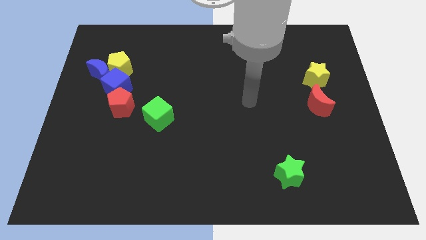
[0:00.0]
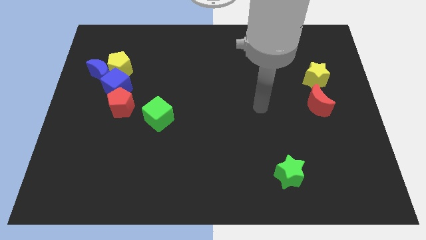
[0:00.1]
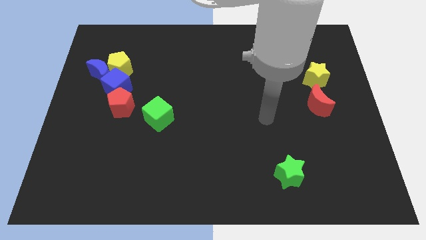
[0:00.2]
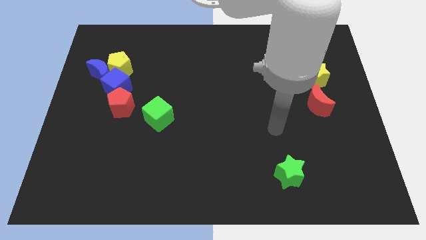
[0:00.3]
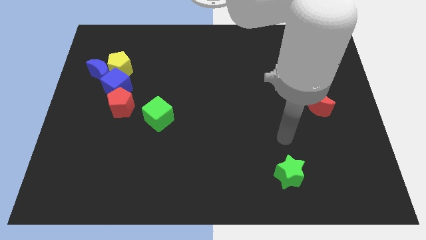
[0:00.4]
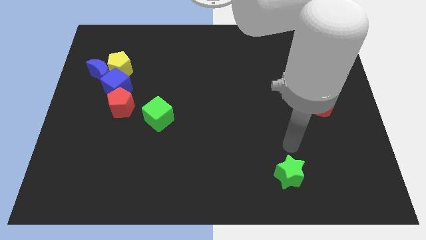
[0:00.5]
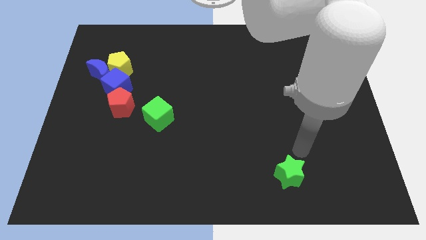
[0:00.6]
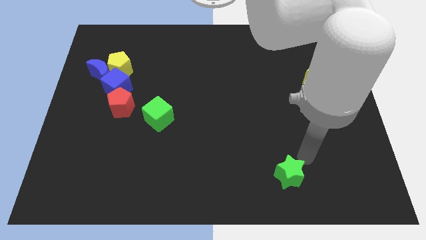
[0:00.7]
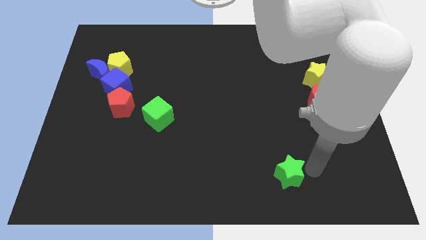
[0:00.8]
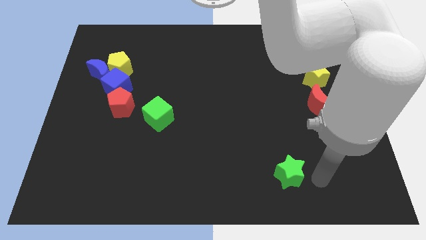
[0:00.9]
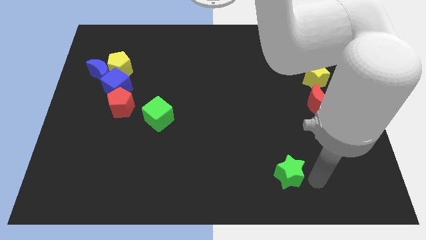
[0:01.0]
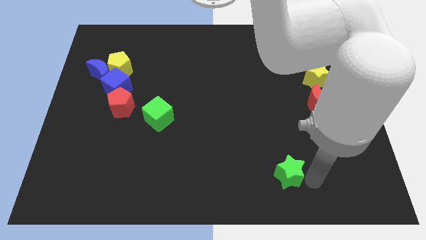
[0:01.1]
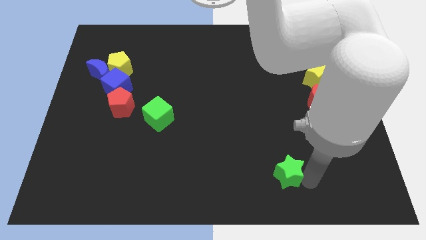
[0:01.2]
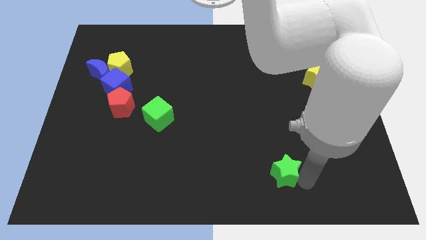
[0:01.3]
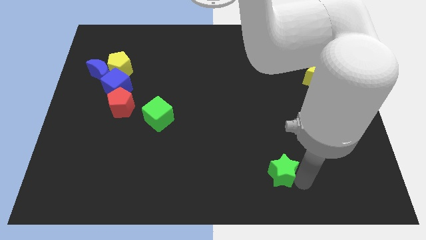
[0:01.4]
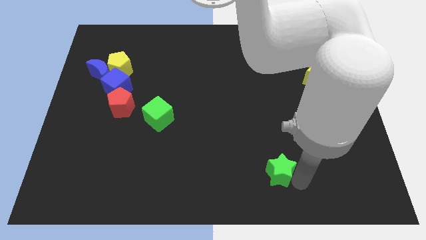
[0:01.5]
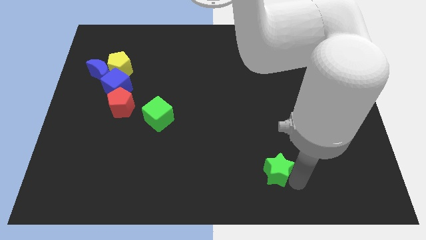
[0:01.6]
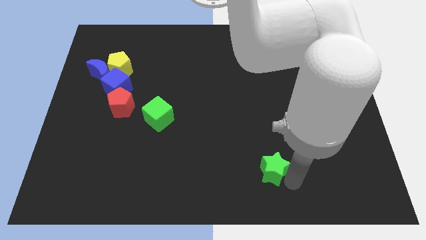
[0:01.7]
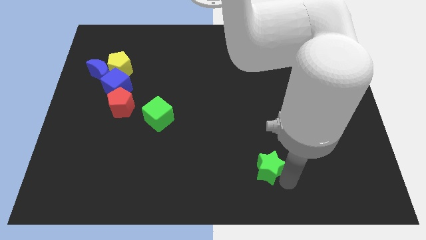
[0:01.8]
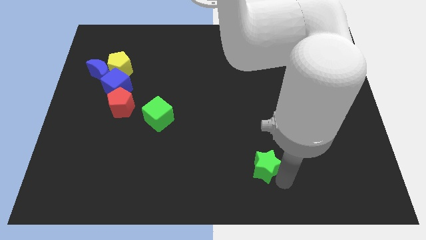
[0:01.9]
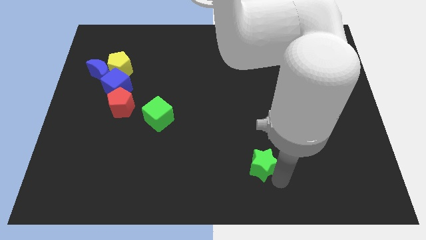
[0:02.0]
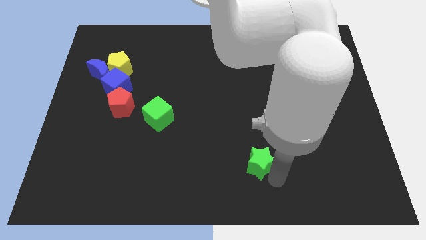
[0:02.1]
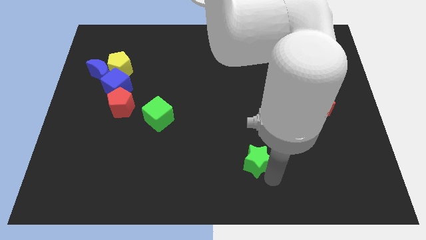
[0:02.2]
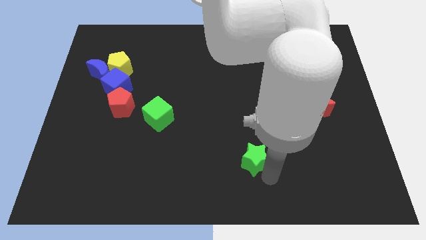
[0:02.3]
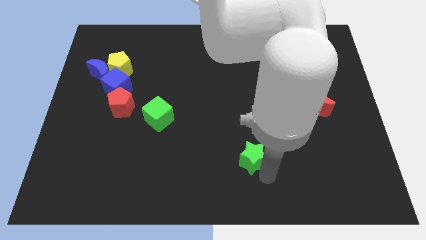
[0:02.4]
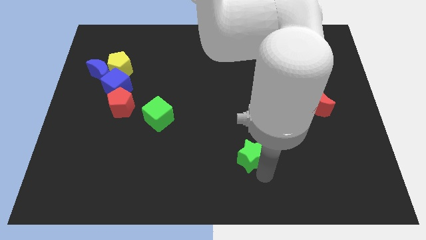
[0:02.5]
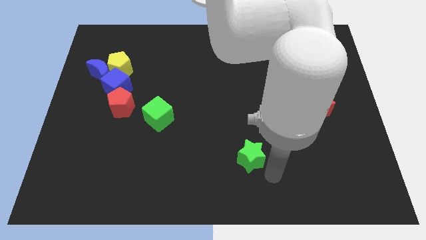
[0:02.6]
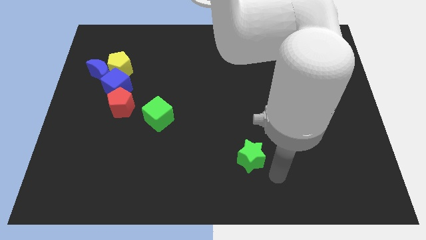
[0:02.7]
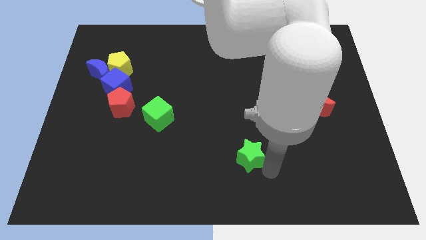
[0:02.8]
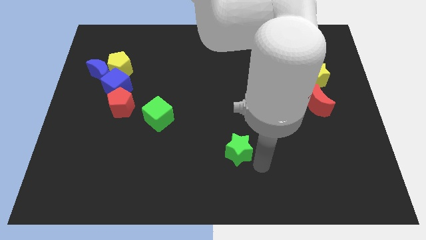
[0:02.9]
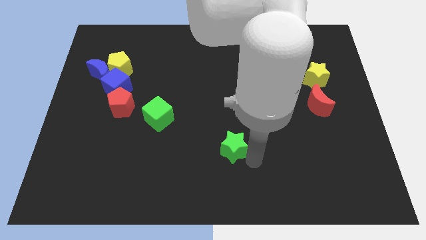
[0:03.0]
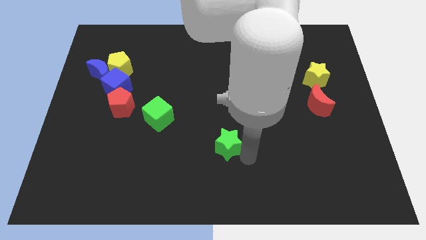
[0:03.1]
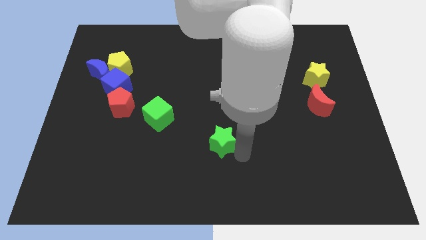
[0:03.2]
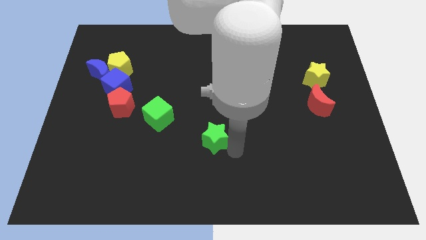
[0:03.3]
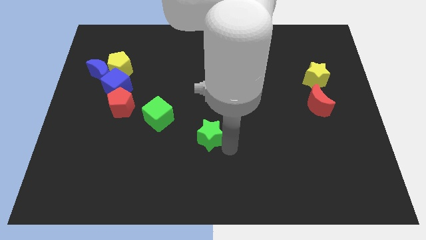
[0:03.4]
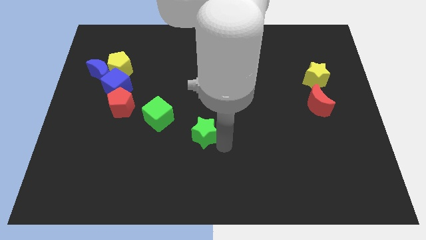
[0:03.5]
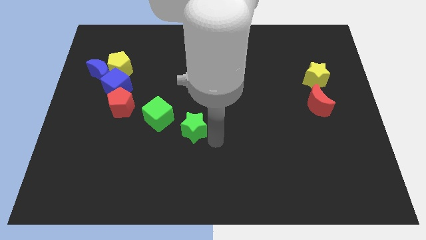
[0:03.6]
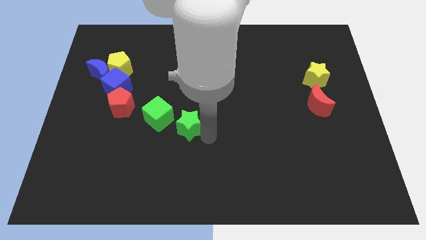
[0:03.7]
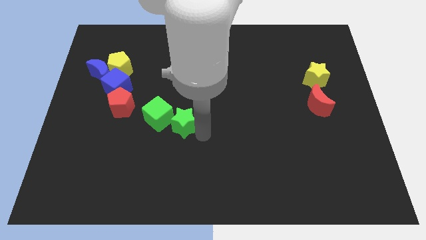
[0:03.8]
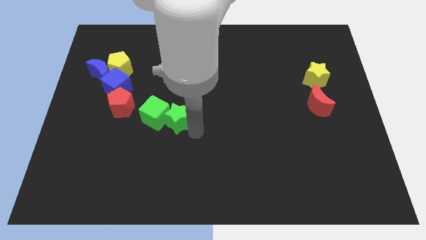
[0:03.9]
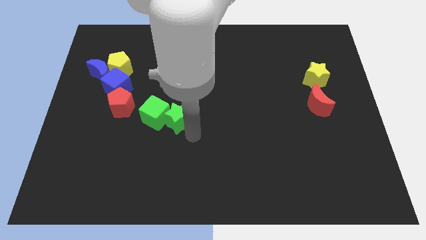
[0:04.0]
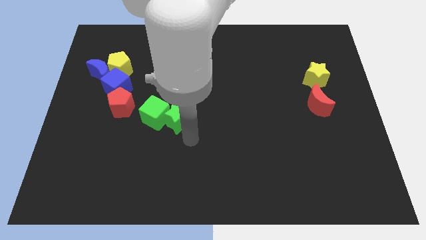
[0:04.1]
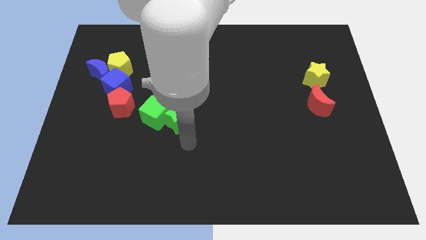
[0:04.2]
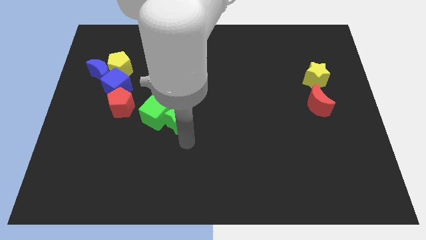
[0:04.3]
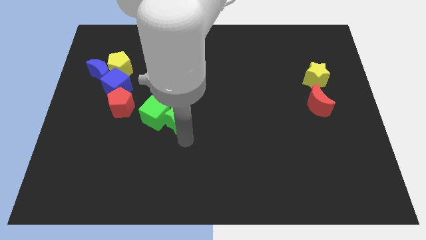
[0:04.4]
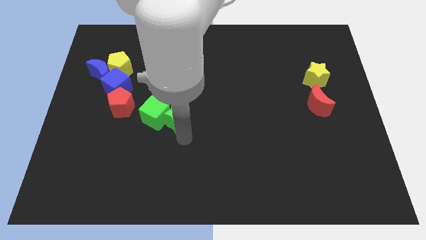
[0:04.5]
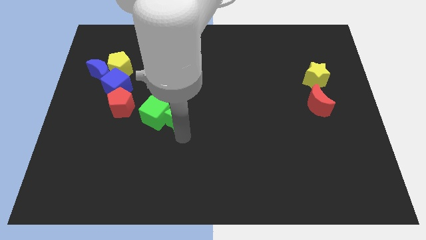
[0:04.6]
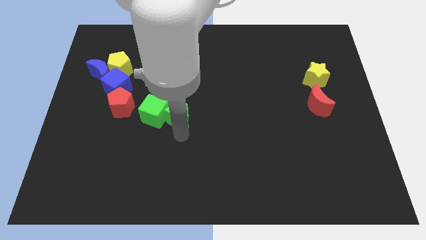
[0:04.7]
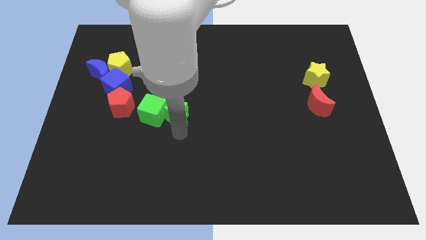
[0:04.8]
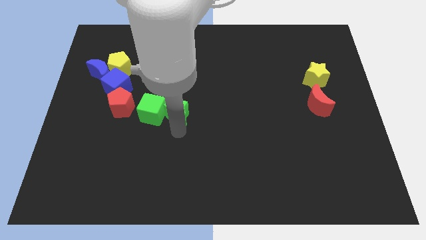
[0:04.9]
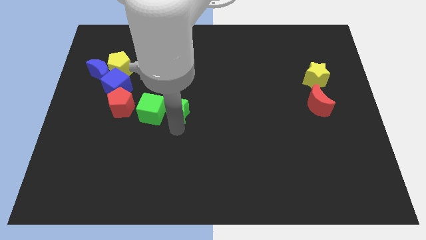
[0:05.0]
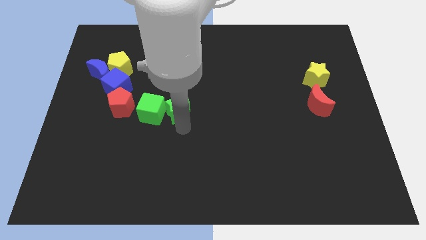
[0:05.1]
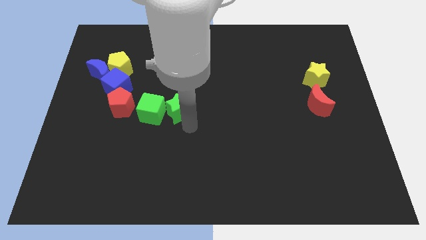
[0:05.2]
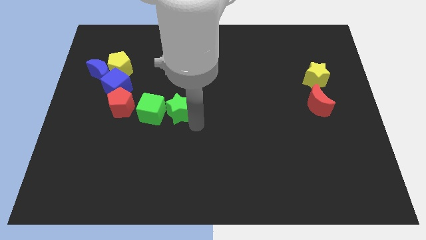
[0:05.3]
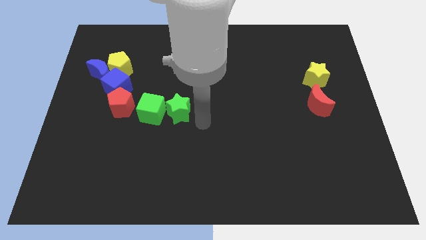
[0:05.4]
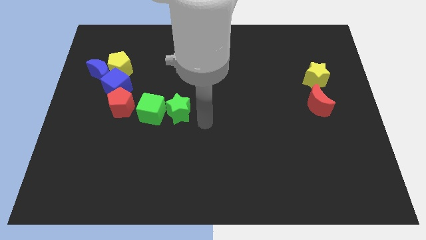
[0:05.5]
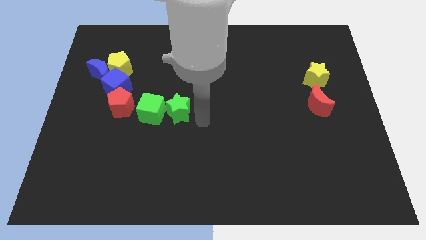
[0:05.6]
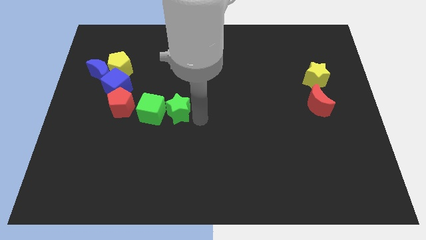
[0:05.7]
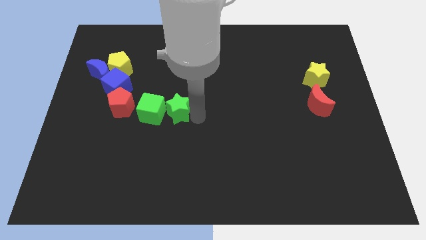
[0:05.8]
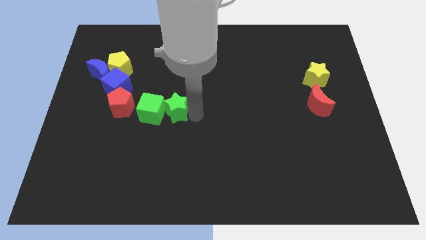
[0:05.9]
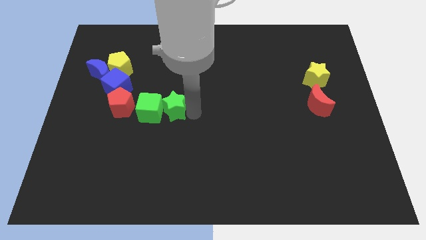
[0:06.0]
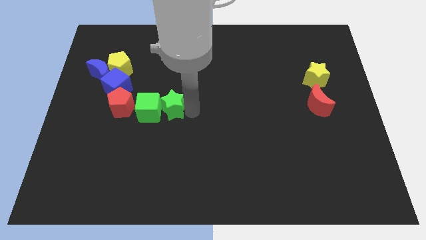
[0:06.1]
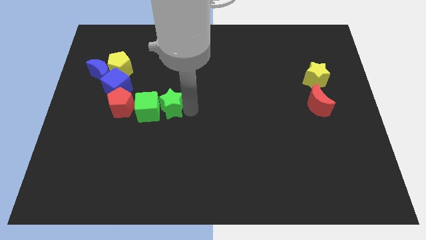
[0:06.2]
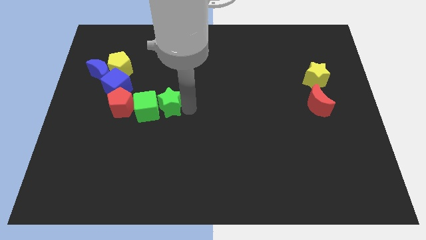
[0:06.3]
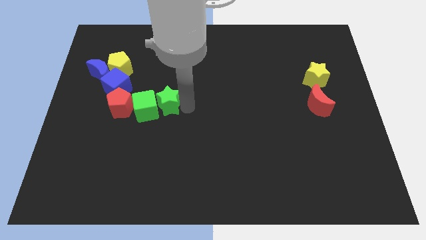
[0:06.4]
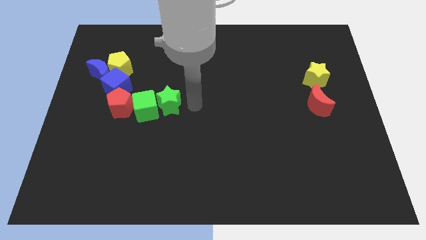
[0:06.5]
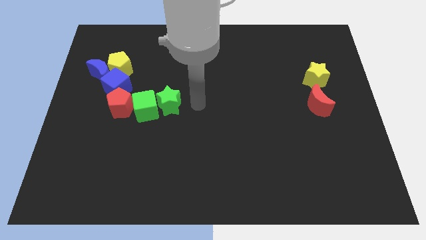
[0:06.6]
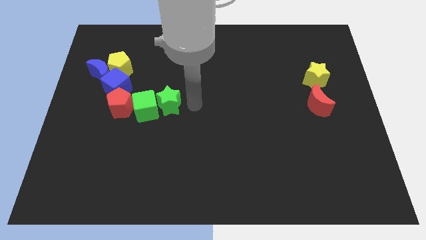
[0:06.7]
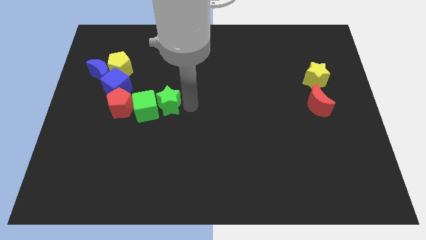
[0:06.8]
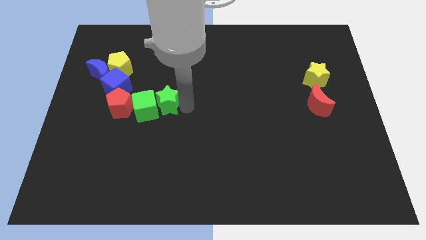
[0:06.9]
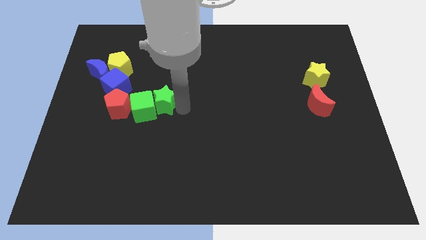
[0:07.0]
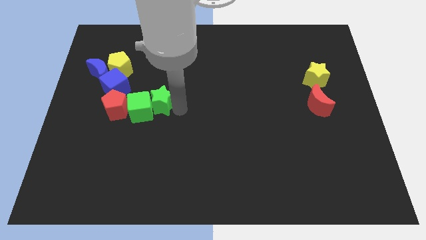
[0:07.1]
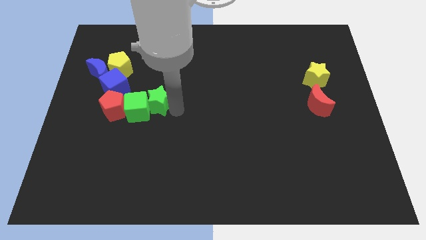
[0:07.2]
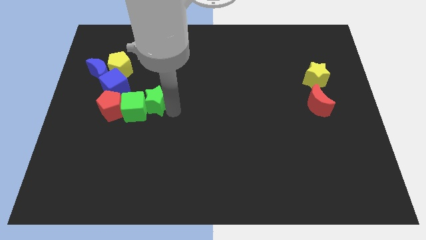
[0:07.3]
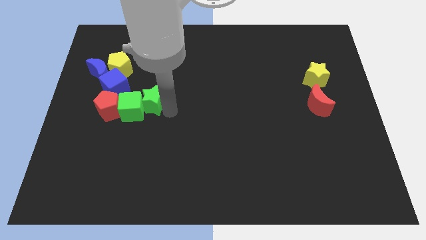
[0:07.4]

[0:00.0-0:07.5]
move the green star diagonally down and to the right of the blue cube

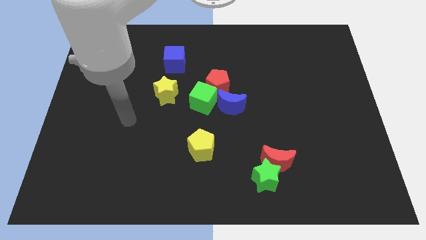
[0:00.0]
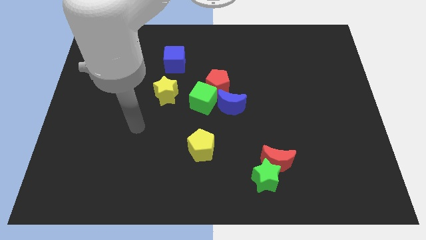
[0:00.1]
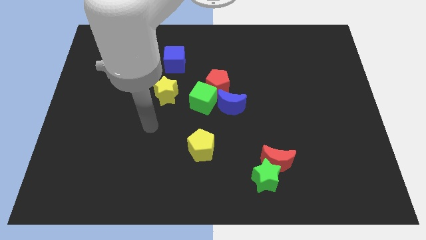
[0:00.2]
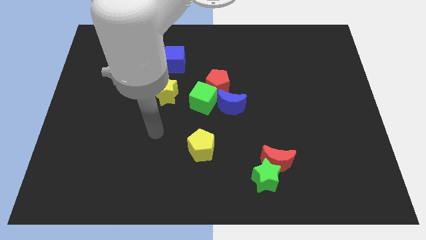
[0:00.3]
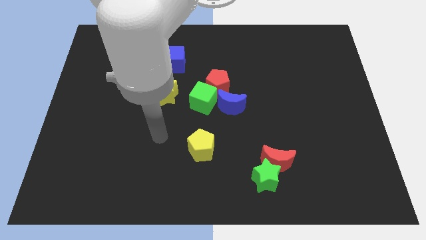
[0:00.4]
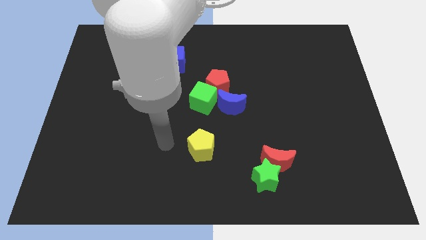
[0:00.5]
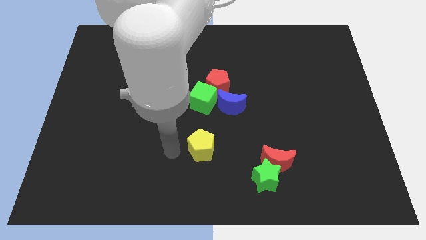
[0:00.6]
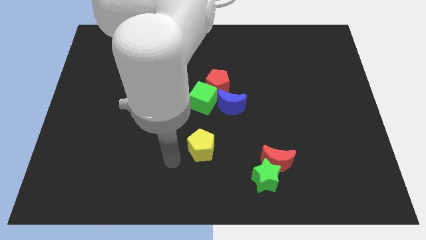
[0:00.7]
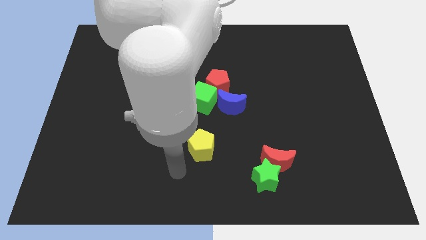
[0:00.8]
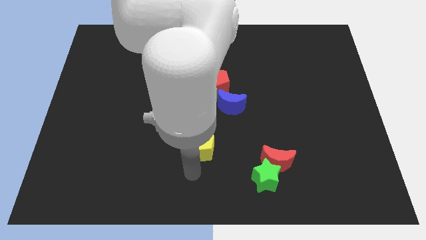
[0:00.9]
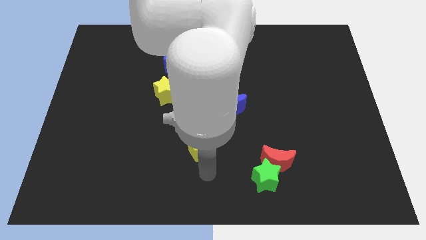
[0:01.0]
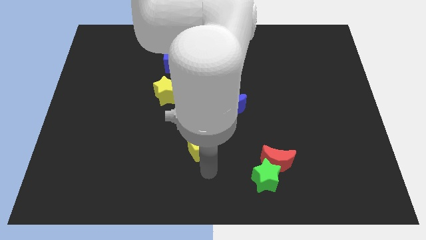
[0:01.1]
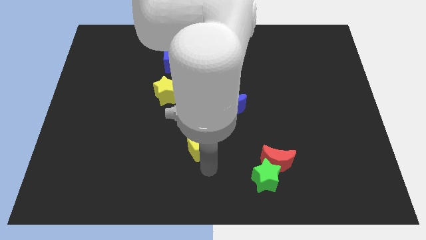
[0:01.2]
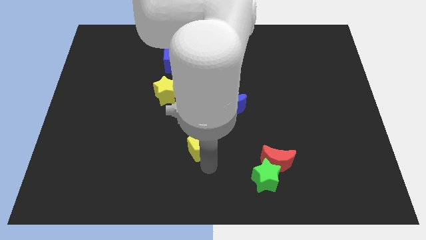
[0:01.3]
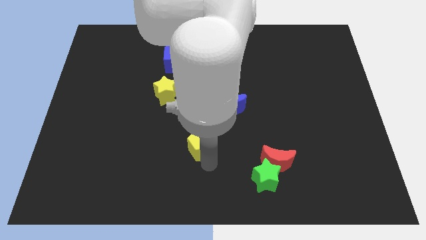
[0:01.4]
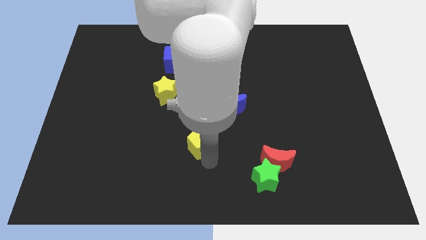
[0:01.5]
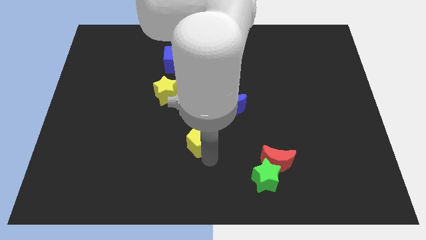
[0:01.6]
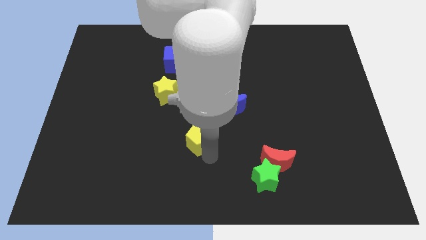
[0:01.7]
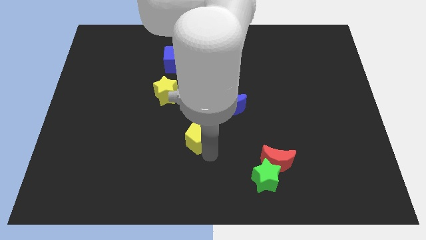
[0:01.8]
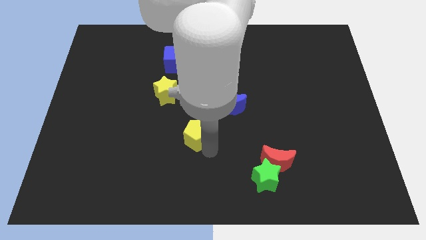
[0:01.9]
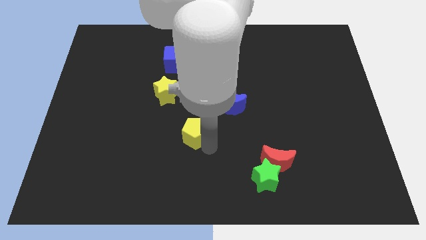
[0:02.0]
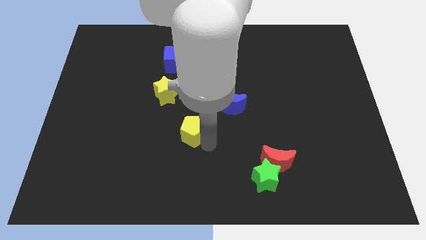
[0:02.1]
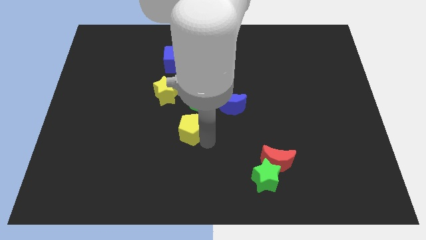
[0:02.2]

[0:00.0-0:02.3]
slide the yellow pentagon diagonally down and to the right of the yellow star
